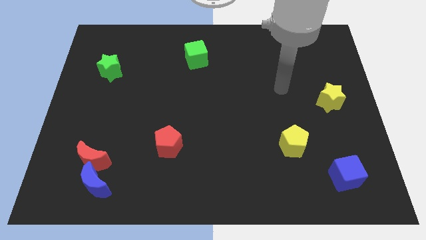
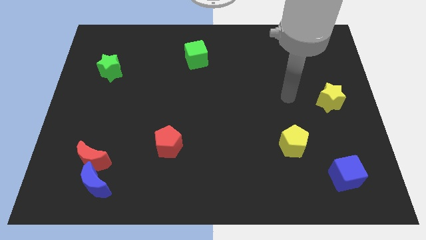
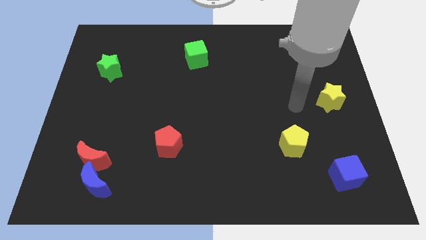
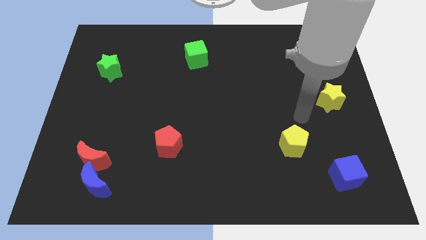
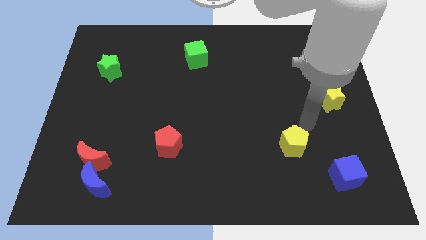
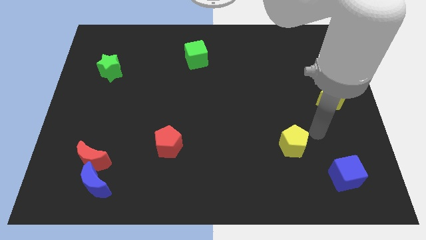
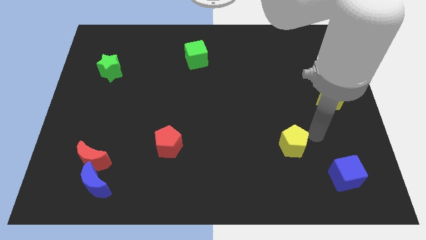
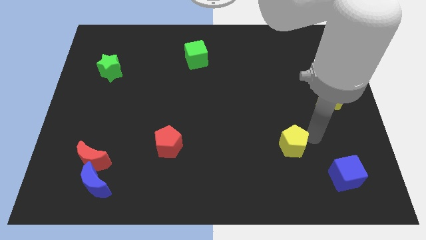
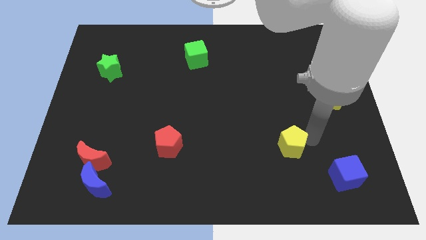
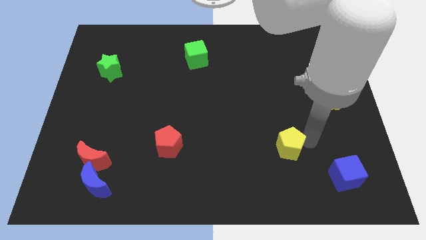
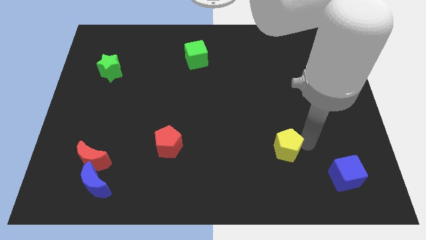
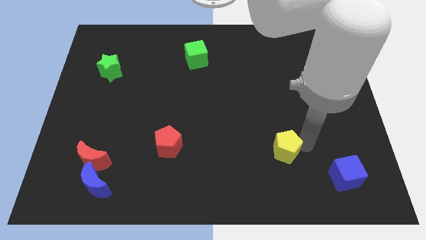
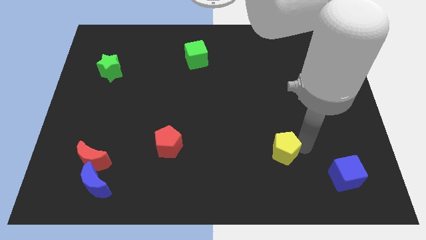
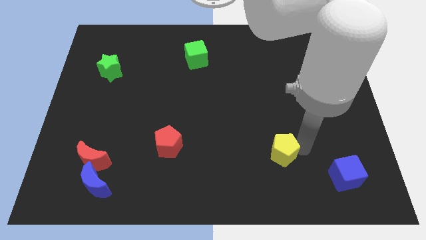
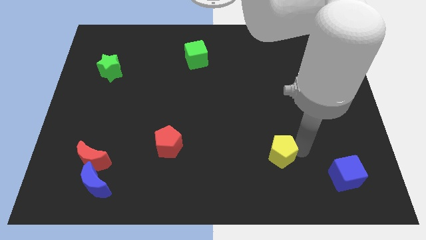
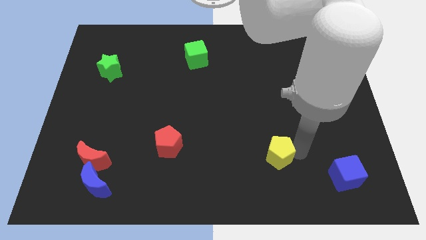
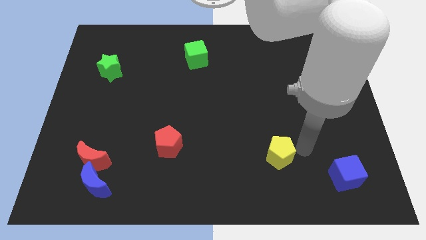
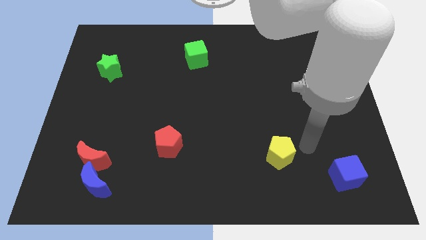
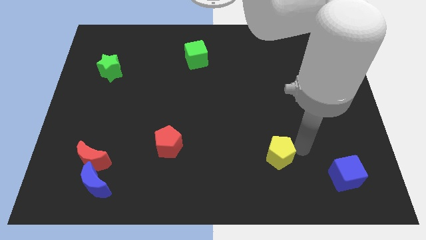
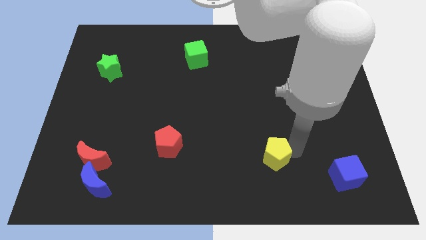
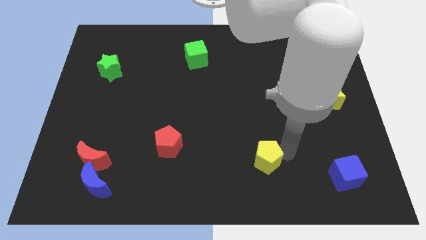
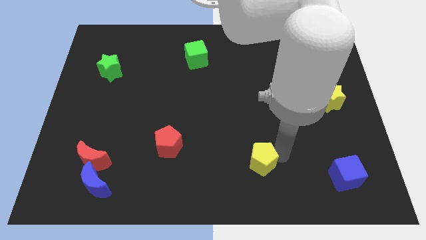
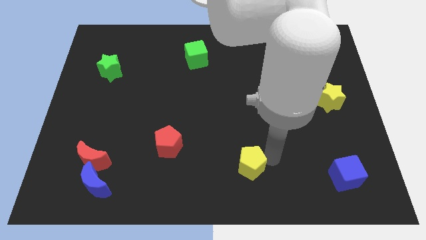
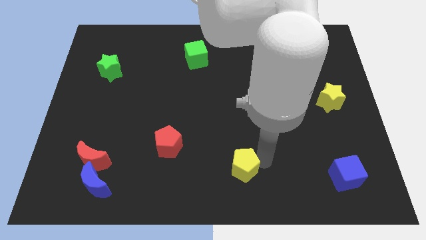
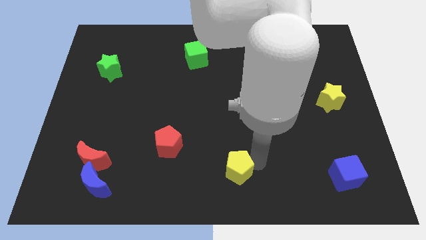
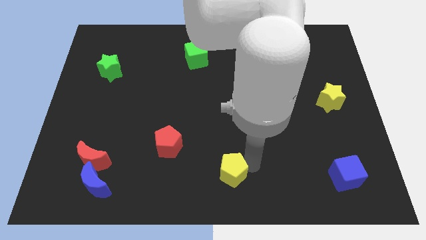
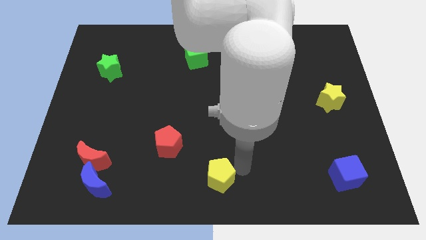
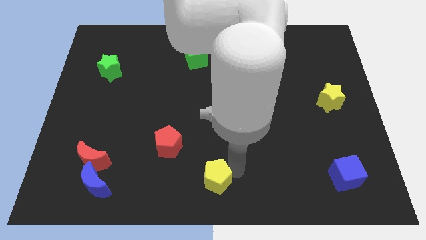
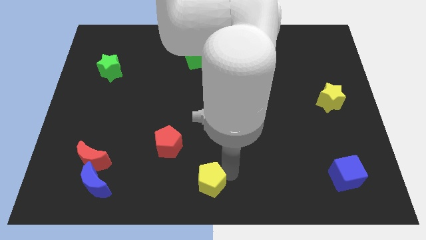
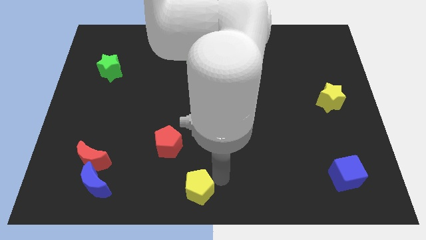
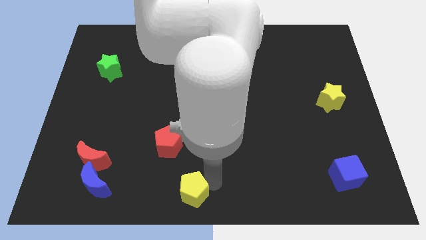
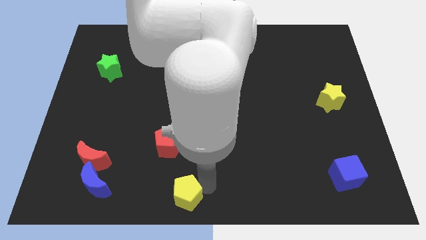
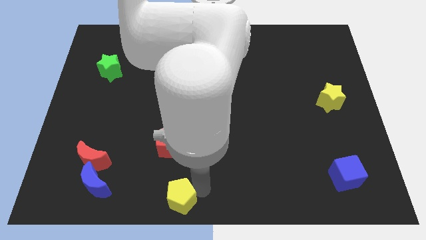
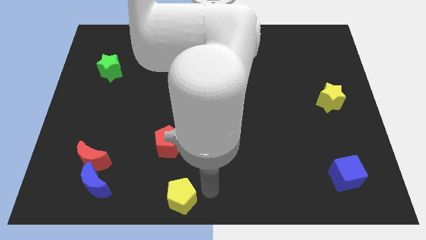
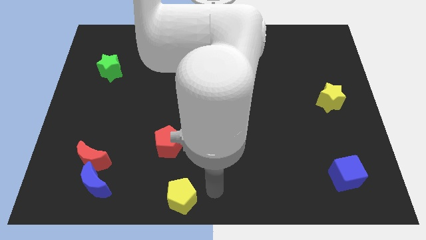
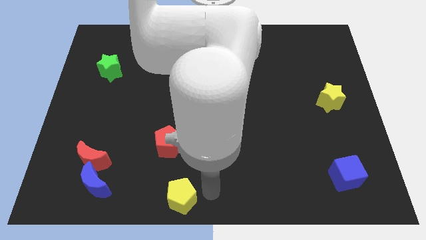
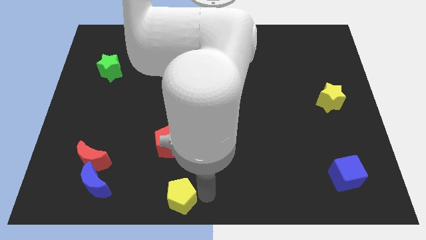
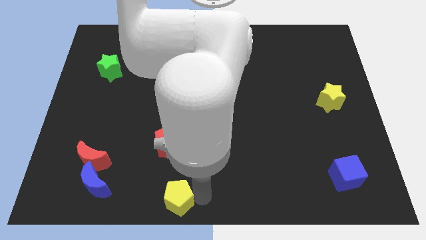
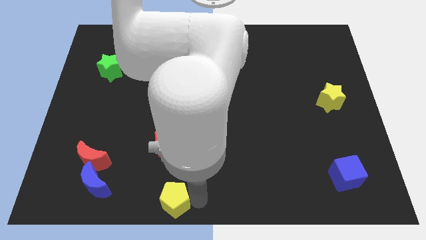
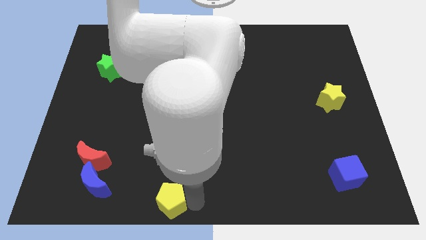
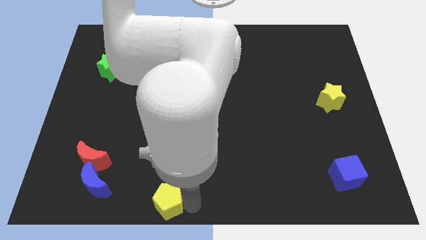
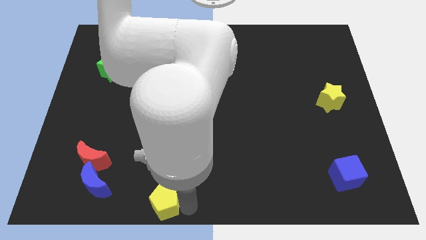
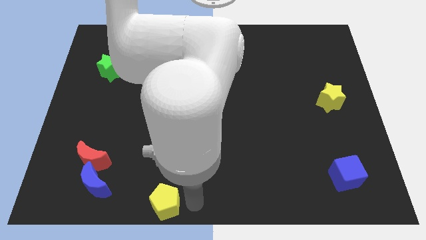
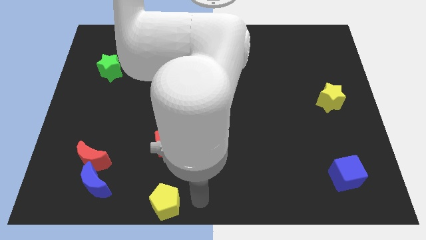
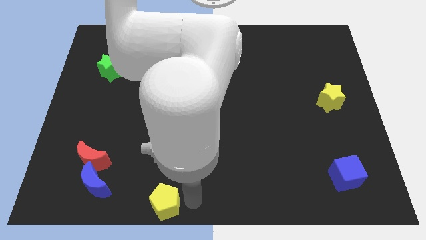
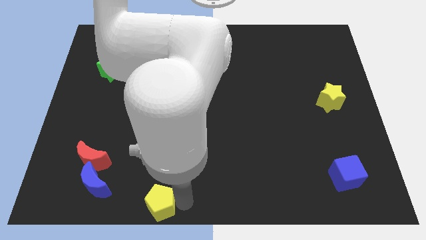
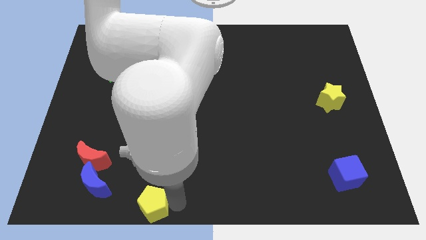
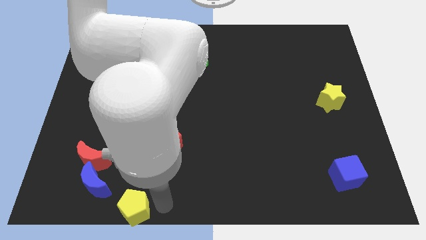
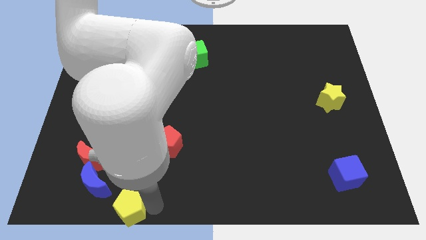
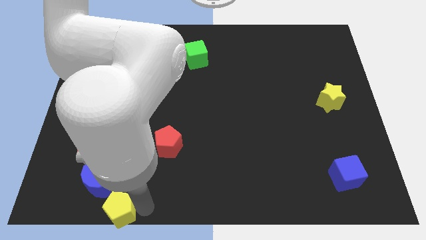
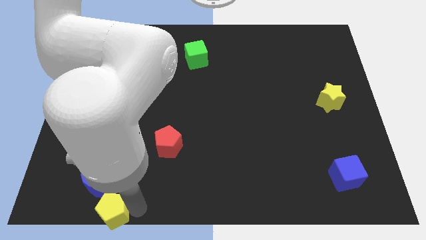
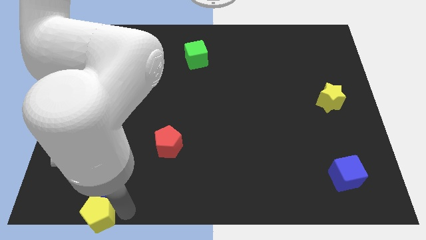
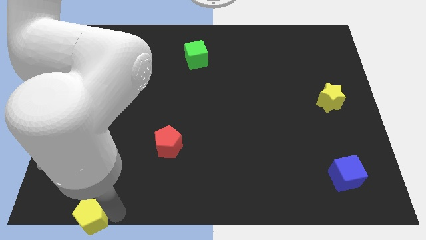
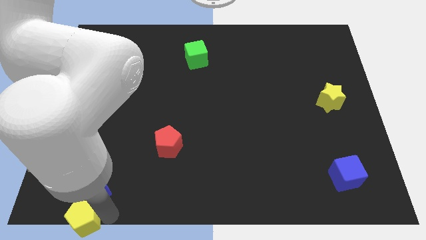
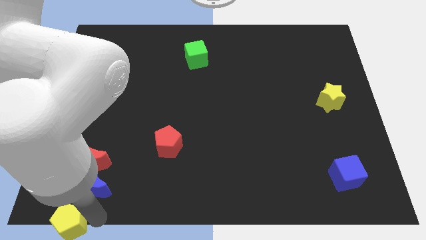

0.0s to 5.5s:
move the yellow pentagon to the bottom left of the board

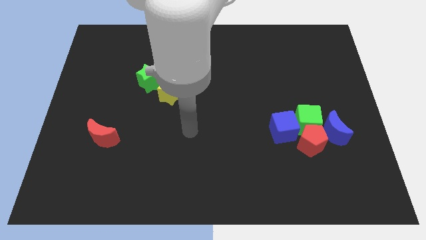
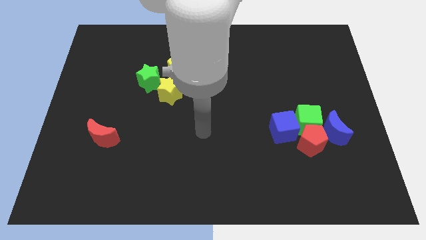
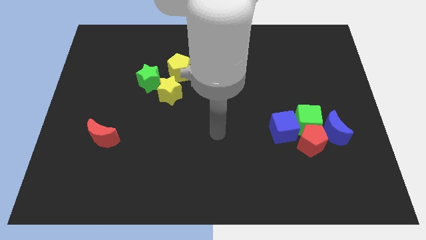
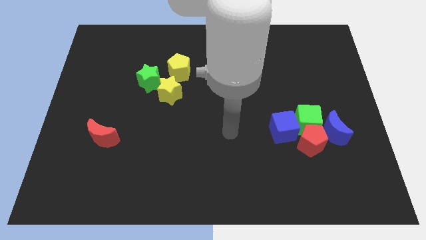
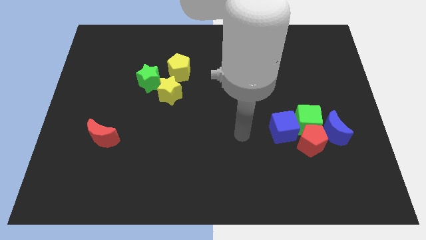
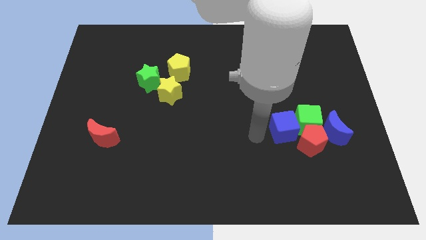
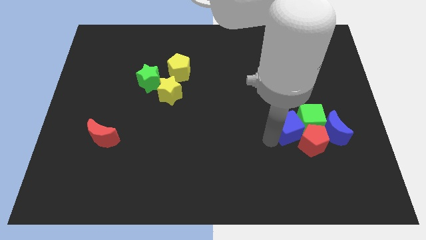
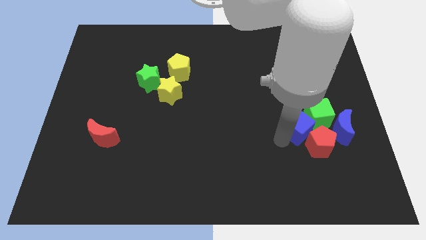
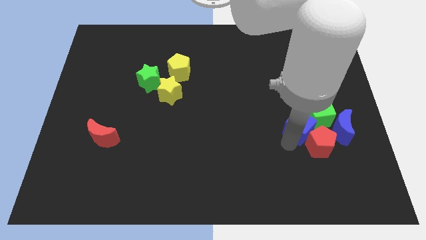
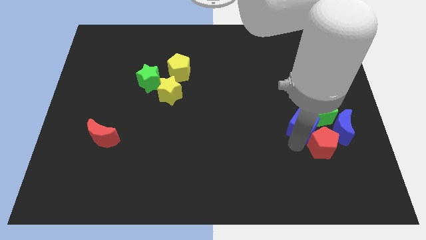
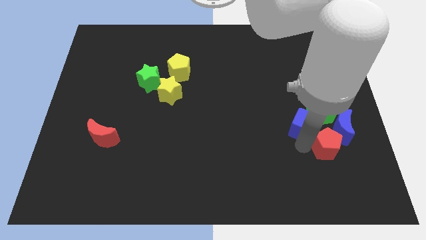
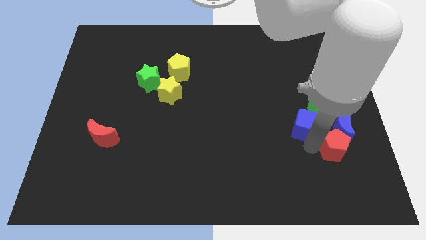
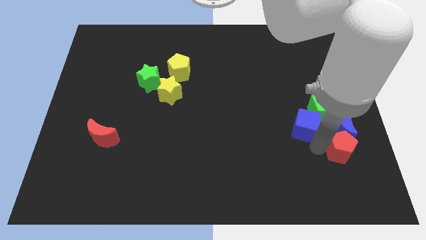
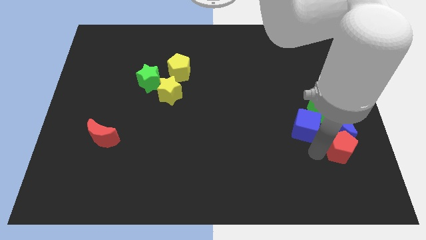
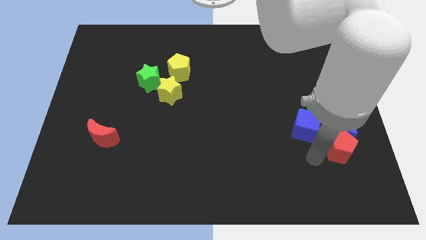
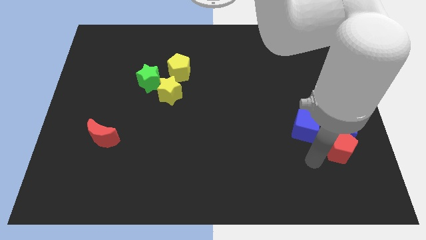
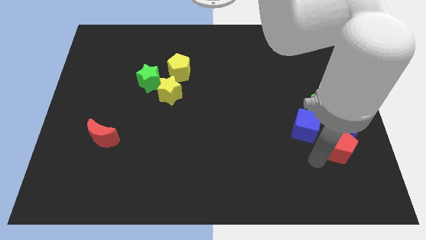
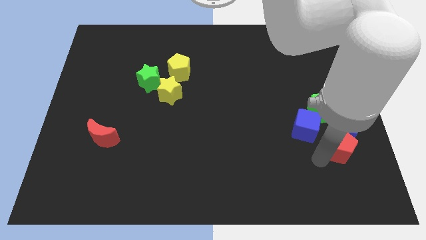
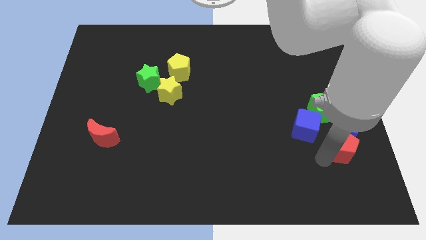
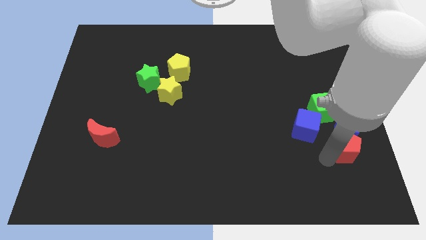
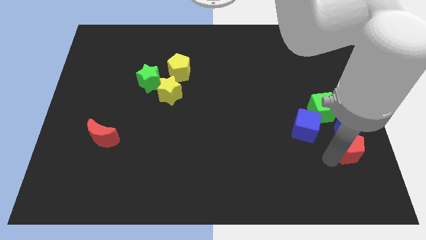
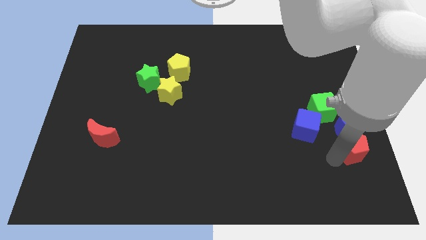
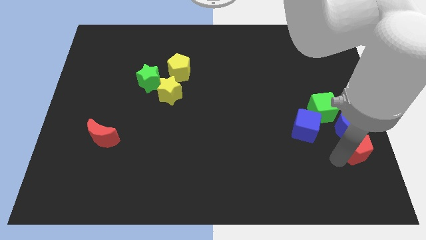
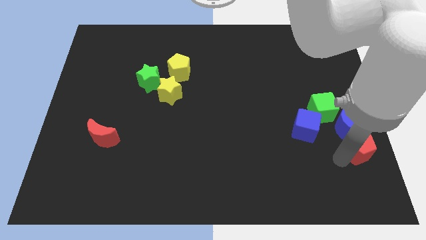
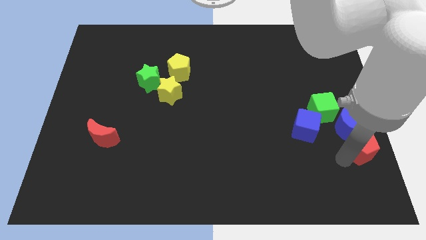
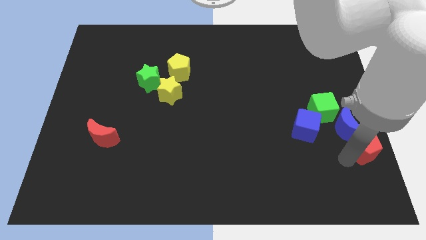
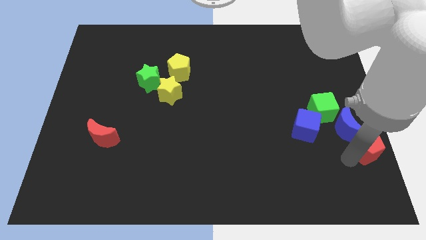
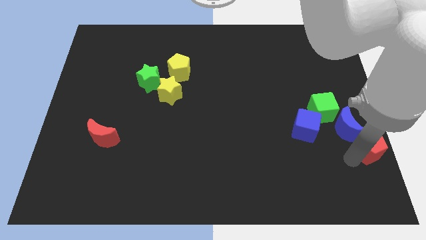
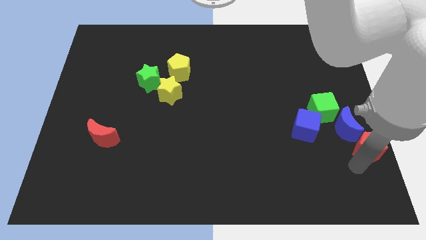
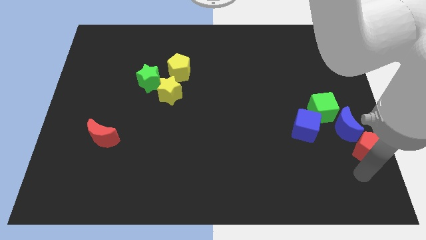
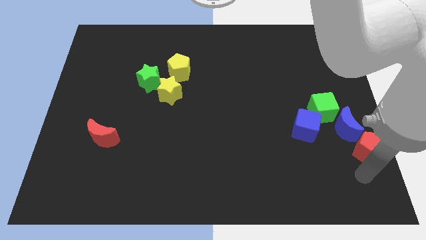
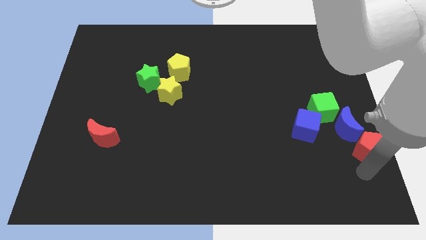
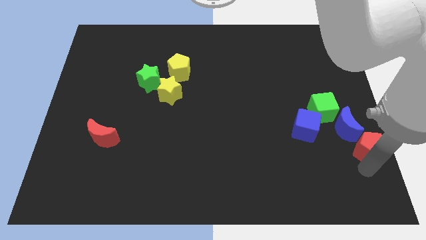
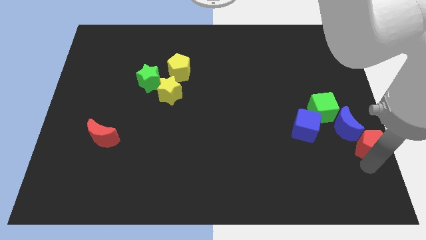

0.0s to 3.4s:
slide the red pentagon to the center right
